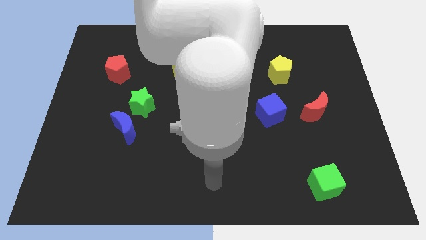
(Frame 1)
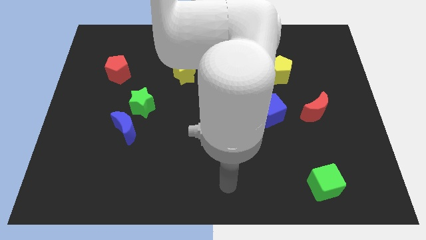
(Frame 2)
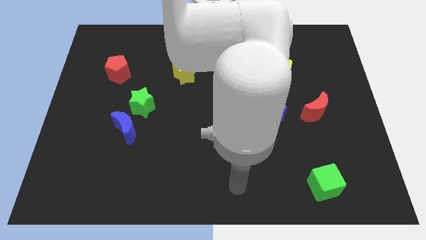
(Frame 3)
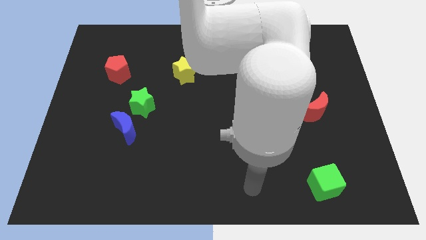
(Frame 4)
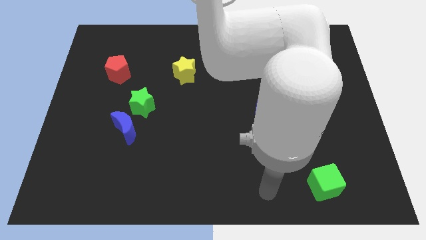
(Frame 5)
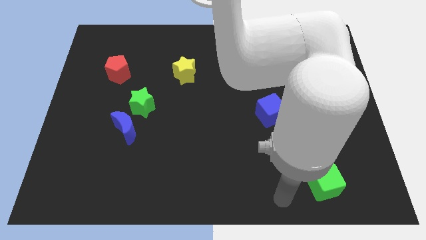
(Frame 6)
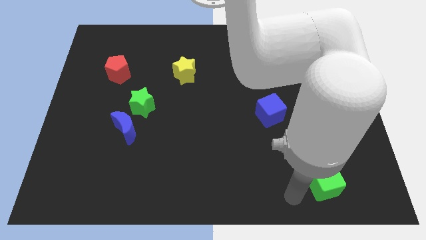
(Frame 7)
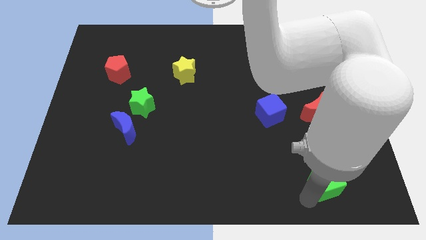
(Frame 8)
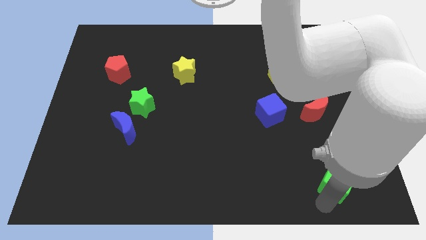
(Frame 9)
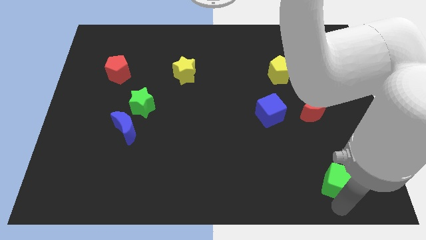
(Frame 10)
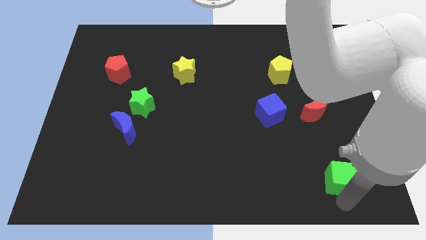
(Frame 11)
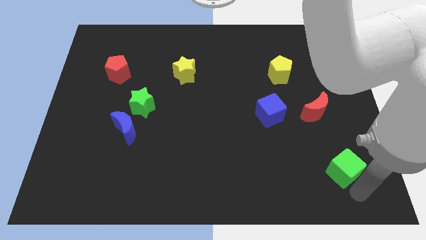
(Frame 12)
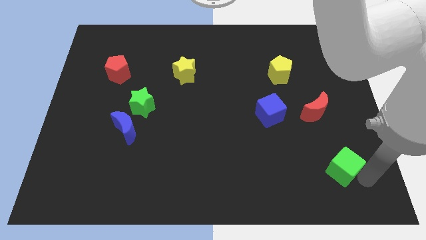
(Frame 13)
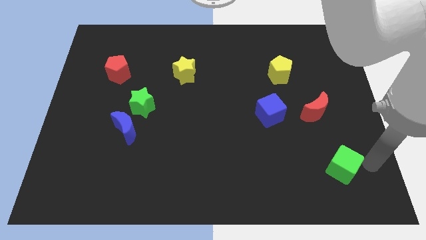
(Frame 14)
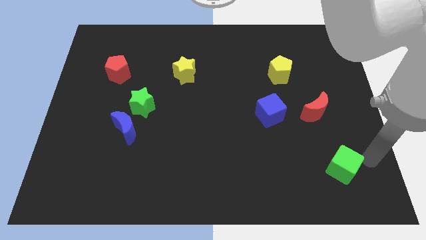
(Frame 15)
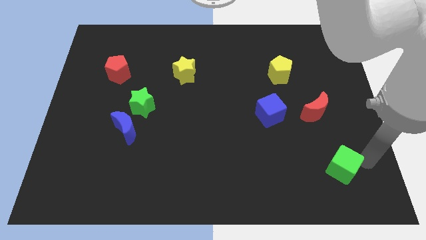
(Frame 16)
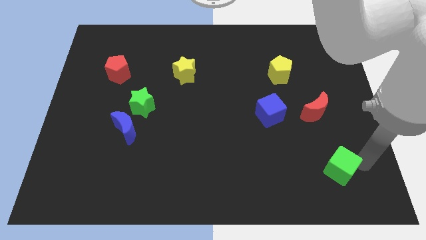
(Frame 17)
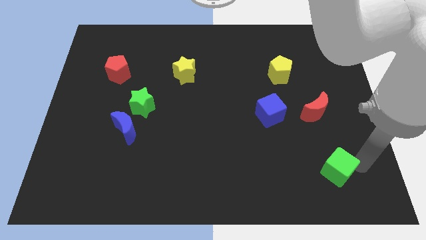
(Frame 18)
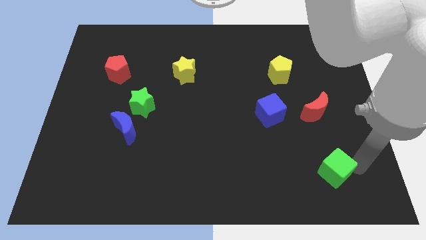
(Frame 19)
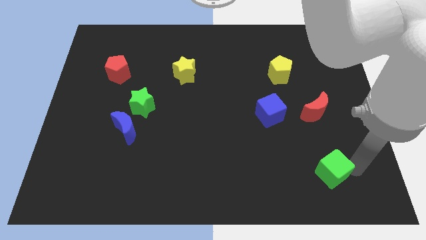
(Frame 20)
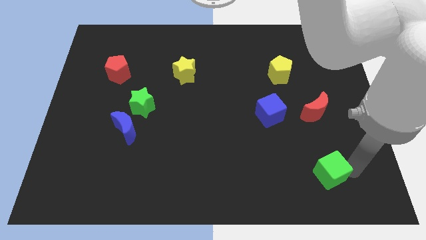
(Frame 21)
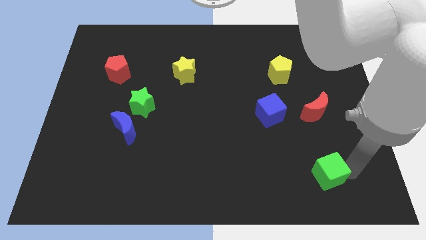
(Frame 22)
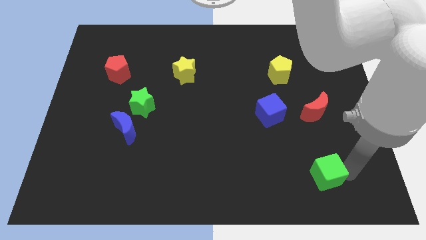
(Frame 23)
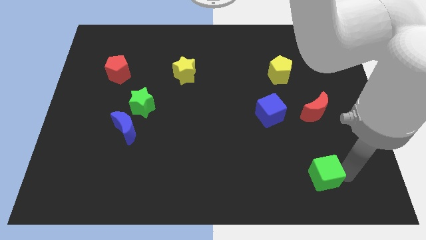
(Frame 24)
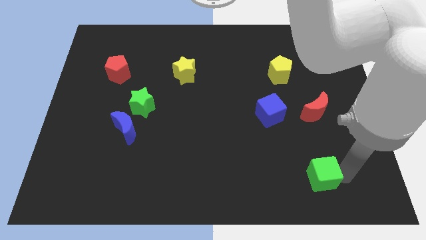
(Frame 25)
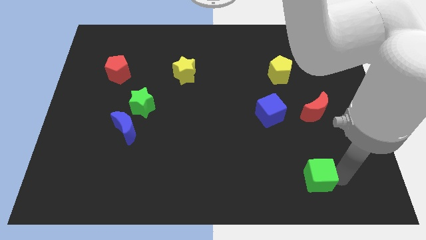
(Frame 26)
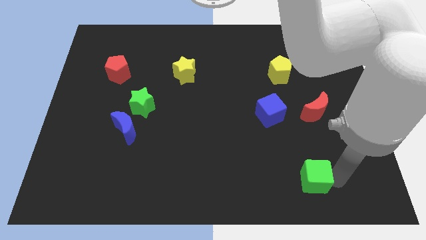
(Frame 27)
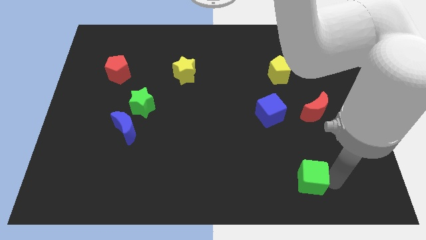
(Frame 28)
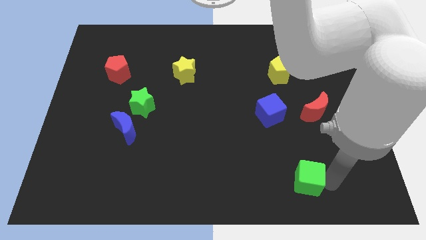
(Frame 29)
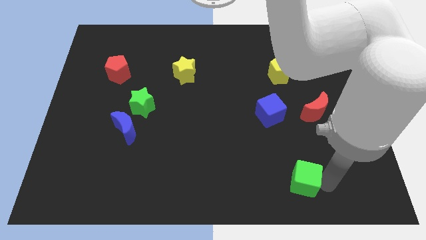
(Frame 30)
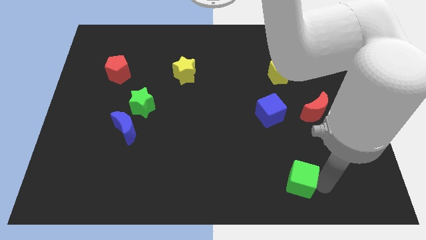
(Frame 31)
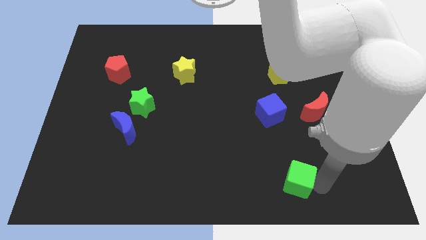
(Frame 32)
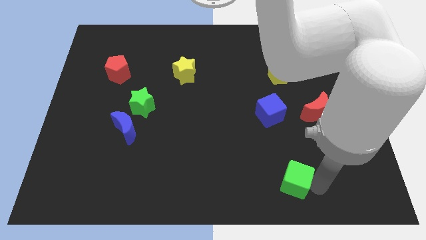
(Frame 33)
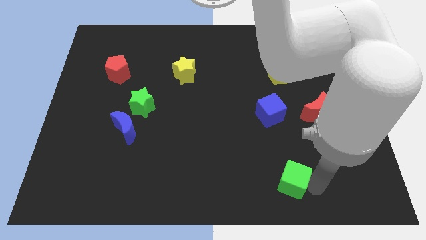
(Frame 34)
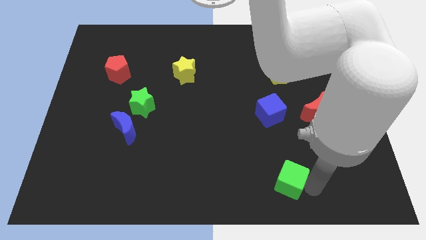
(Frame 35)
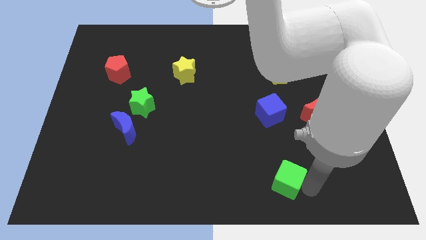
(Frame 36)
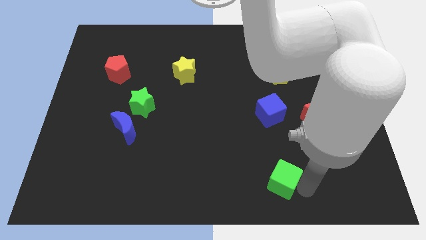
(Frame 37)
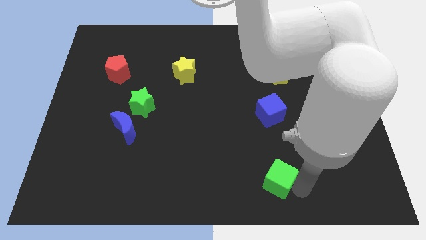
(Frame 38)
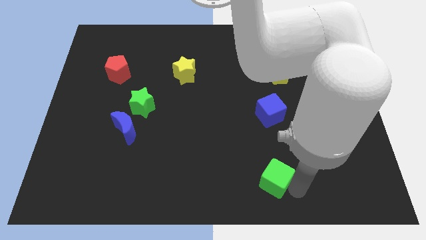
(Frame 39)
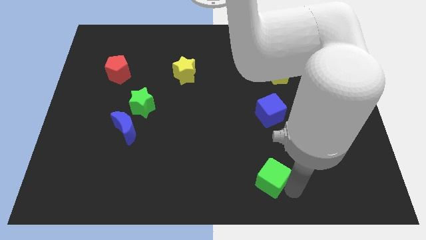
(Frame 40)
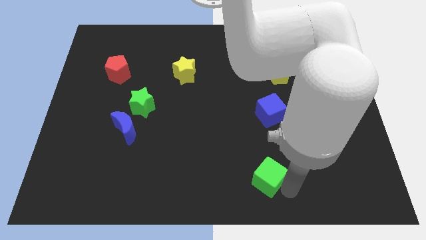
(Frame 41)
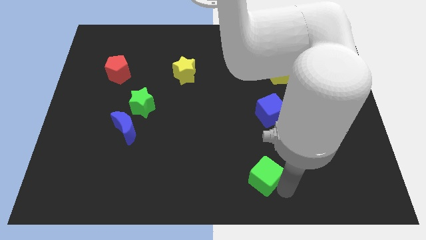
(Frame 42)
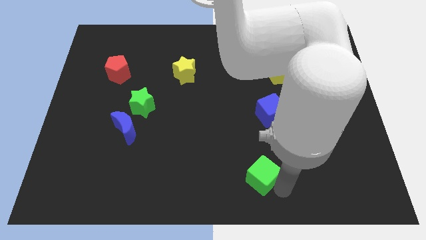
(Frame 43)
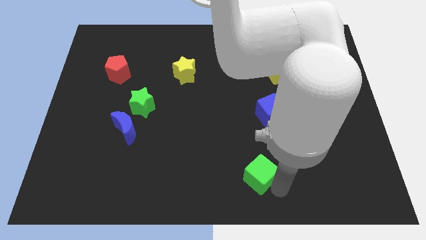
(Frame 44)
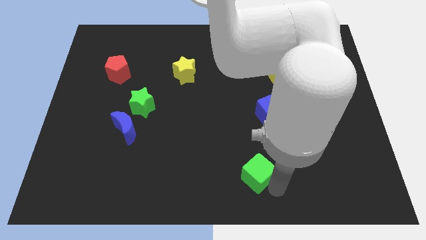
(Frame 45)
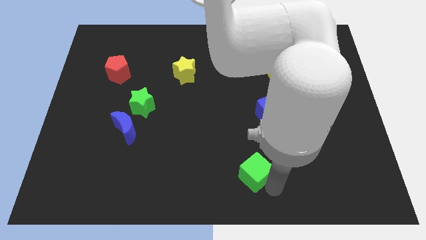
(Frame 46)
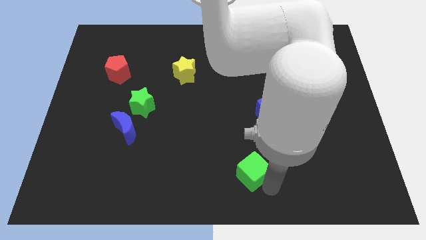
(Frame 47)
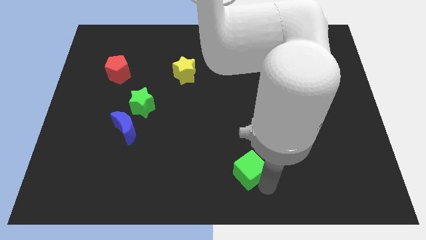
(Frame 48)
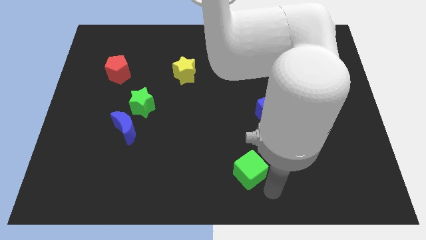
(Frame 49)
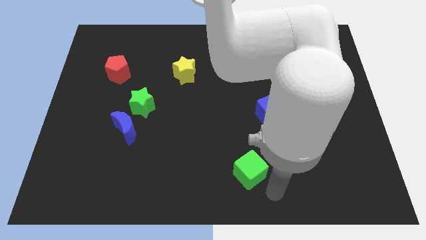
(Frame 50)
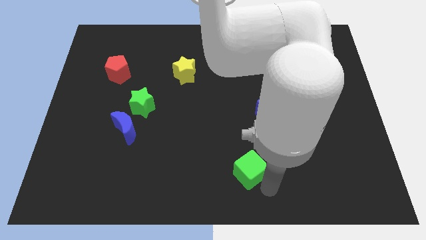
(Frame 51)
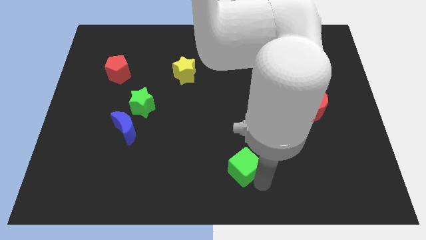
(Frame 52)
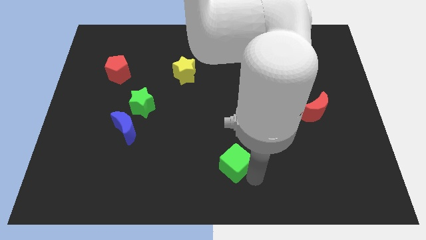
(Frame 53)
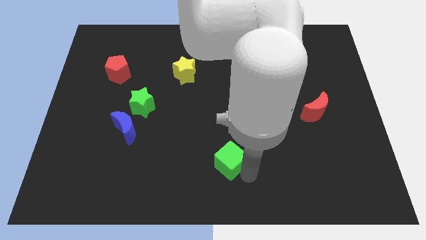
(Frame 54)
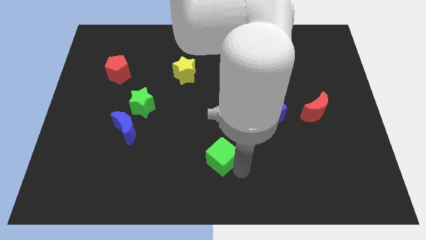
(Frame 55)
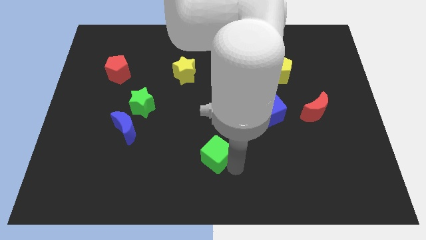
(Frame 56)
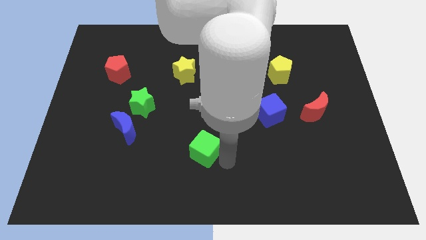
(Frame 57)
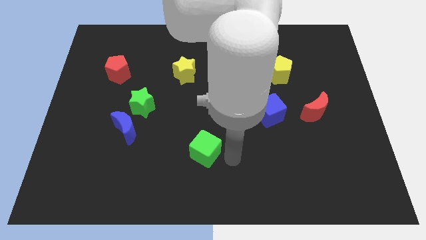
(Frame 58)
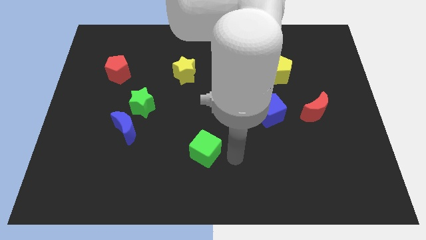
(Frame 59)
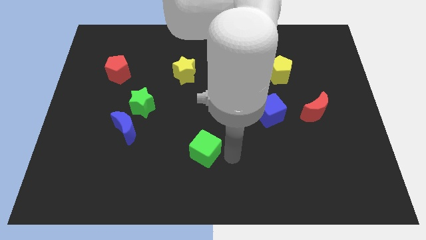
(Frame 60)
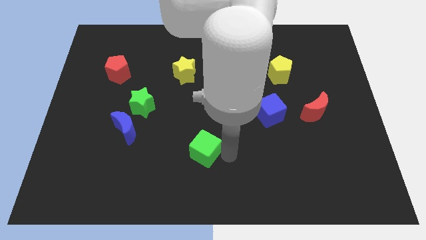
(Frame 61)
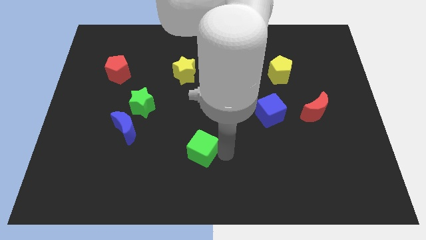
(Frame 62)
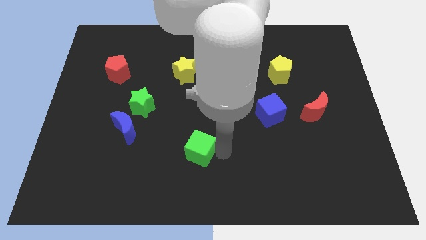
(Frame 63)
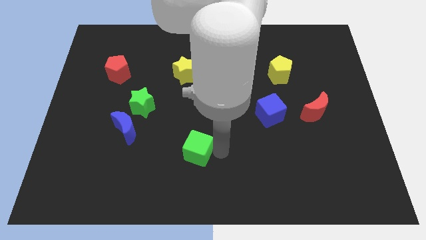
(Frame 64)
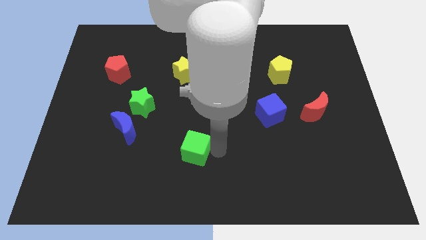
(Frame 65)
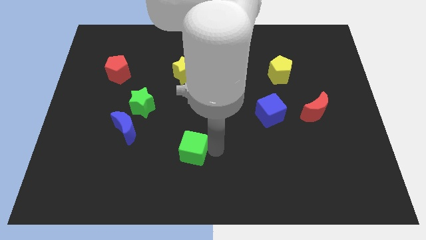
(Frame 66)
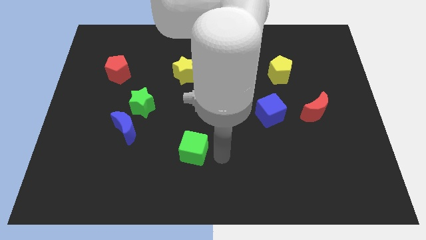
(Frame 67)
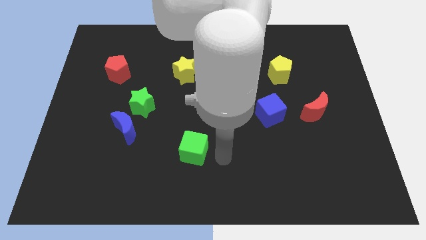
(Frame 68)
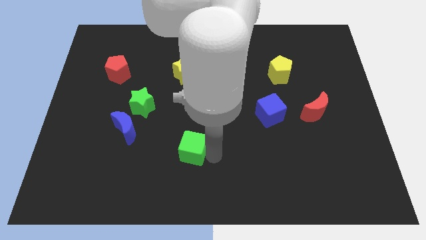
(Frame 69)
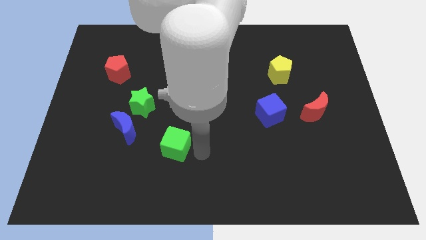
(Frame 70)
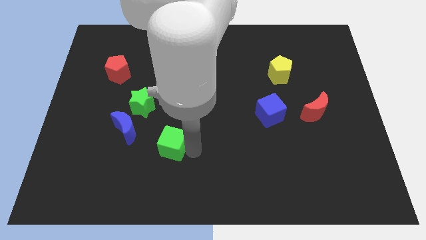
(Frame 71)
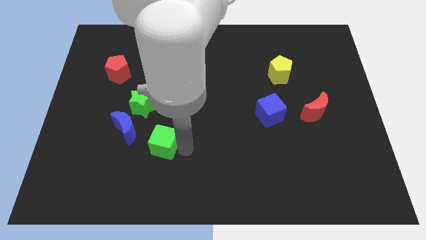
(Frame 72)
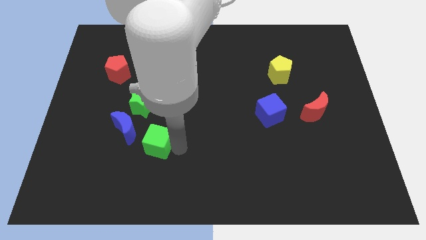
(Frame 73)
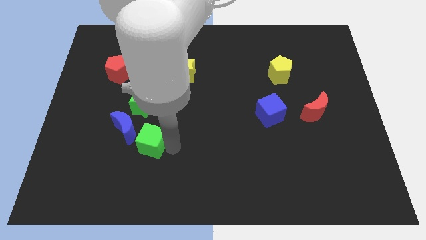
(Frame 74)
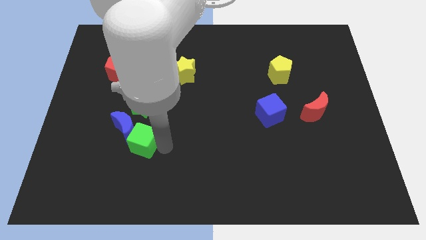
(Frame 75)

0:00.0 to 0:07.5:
slide the green cube next to the blue moon
